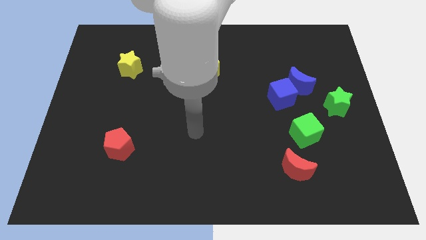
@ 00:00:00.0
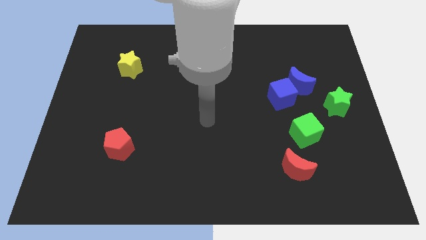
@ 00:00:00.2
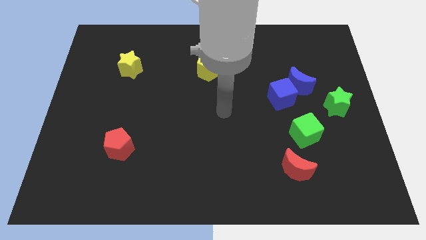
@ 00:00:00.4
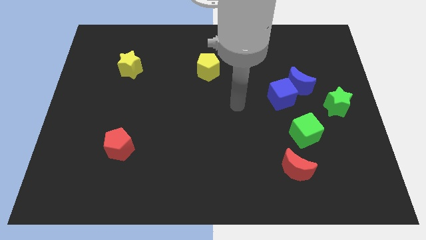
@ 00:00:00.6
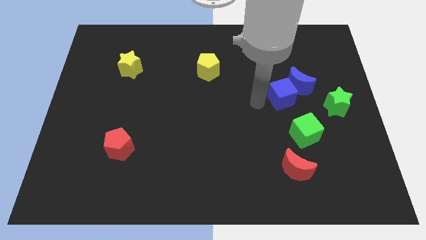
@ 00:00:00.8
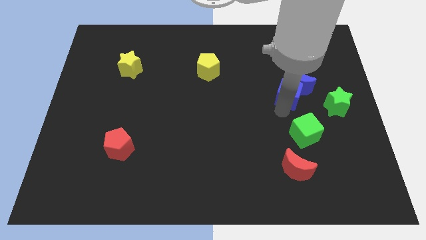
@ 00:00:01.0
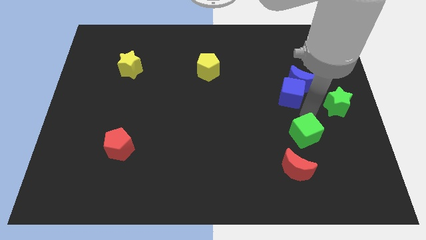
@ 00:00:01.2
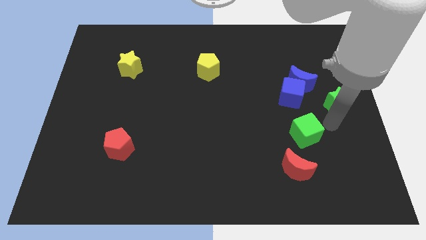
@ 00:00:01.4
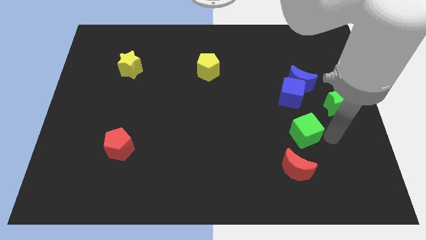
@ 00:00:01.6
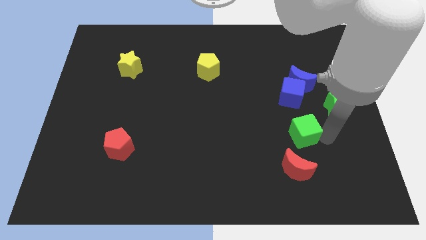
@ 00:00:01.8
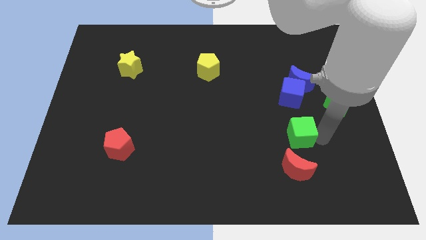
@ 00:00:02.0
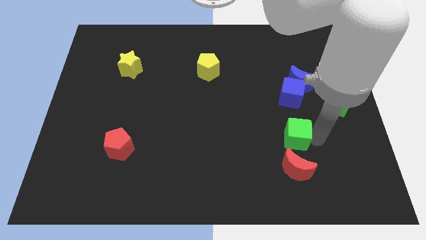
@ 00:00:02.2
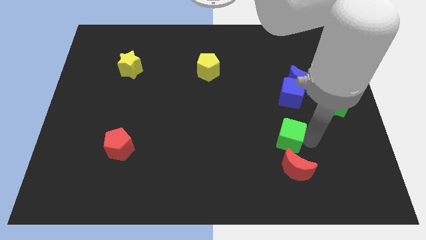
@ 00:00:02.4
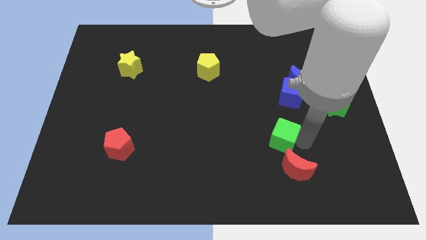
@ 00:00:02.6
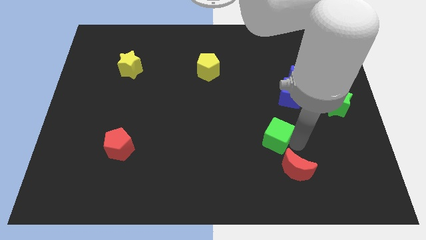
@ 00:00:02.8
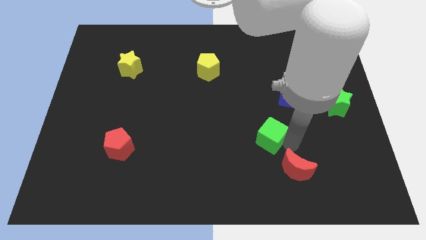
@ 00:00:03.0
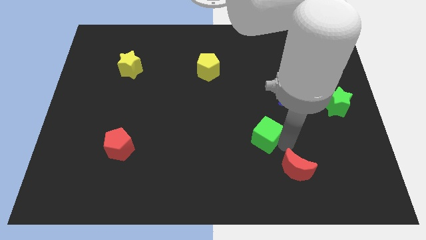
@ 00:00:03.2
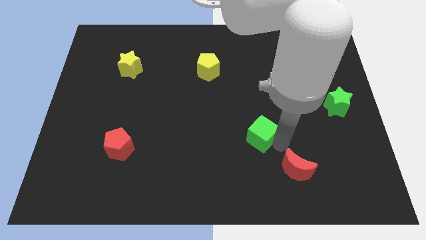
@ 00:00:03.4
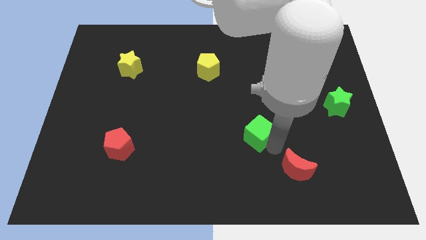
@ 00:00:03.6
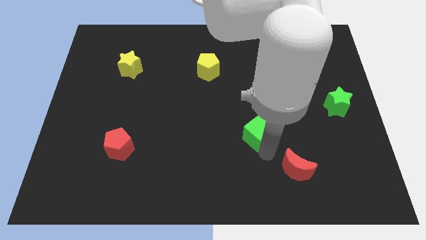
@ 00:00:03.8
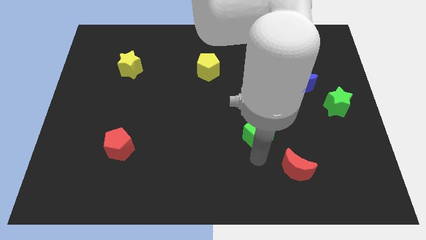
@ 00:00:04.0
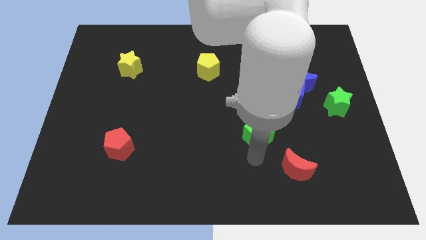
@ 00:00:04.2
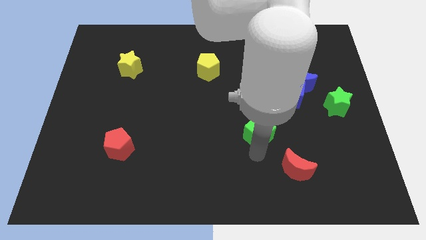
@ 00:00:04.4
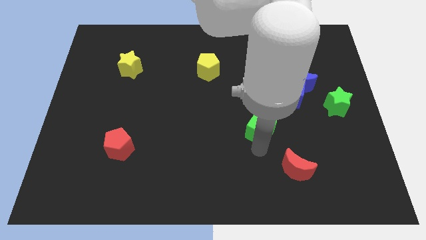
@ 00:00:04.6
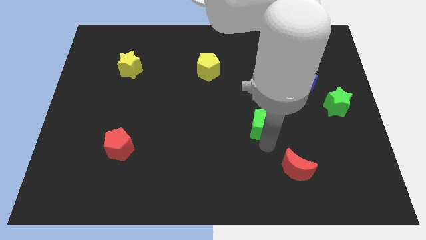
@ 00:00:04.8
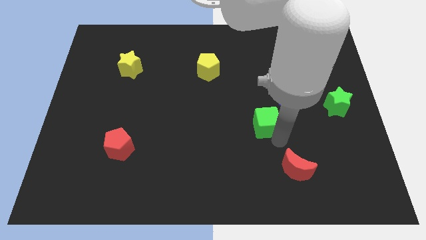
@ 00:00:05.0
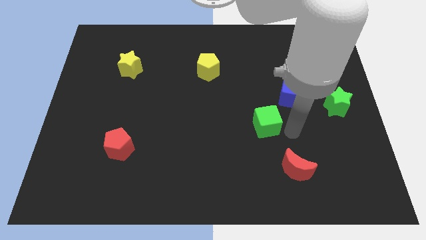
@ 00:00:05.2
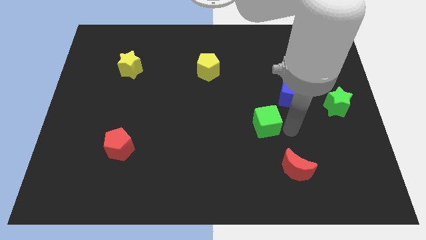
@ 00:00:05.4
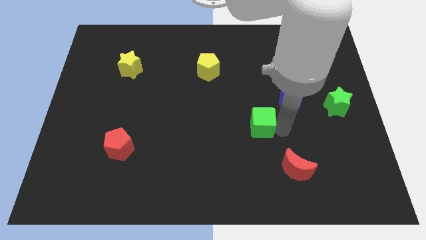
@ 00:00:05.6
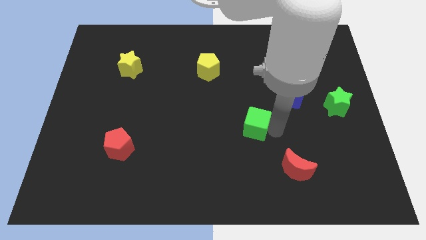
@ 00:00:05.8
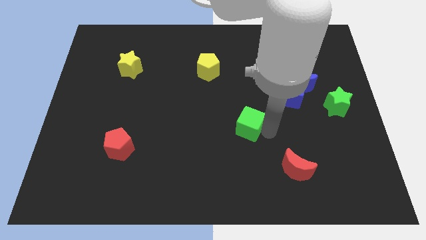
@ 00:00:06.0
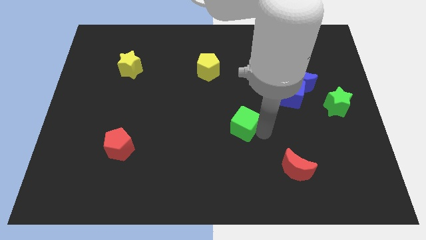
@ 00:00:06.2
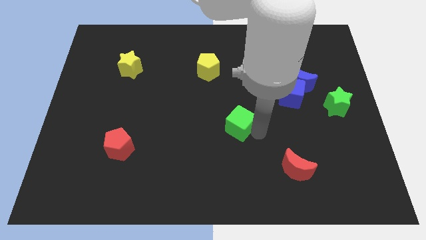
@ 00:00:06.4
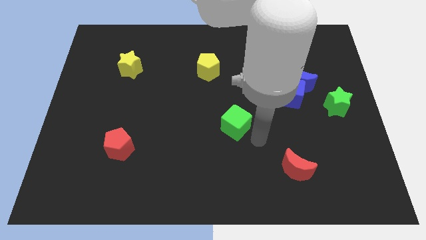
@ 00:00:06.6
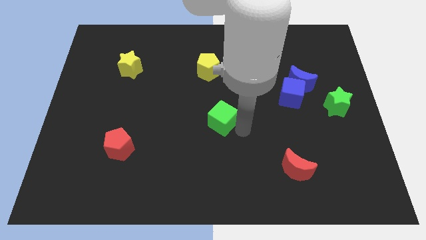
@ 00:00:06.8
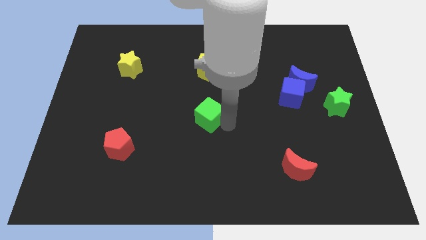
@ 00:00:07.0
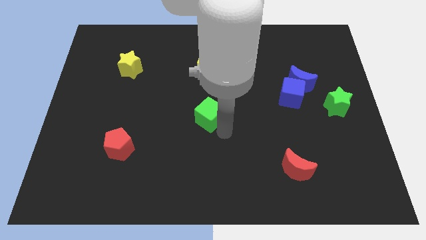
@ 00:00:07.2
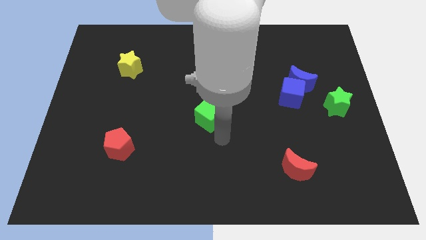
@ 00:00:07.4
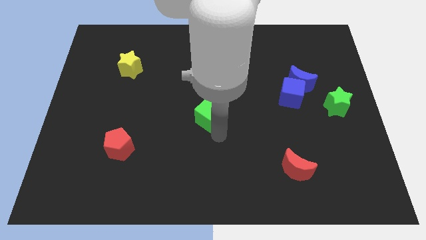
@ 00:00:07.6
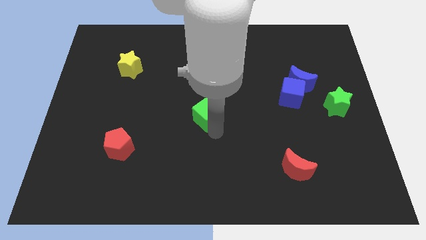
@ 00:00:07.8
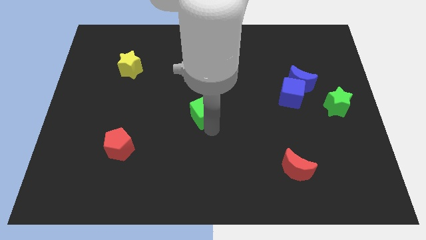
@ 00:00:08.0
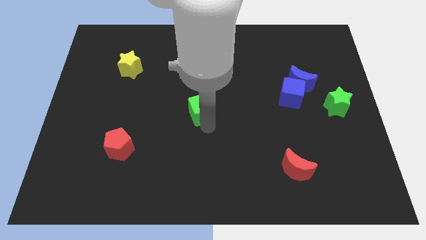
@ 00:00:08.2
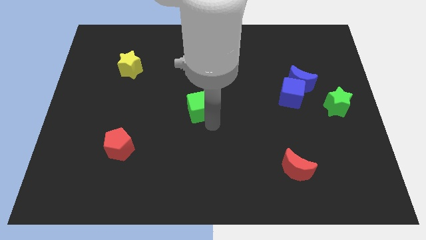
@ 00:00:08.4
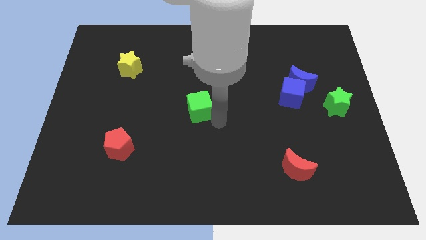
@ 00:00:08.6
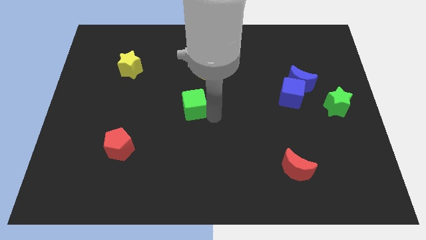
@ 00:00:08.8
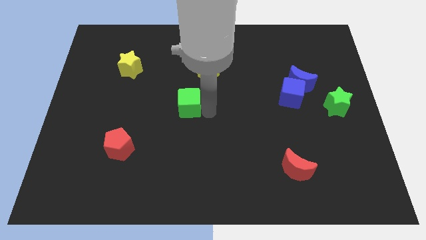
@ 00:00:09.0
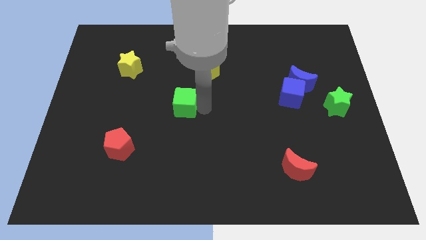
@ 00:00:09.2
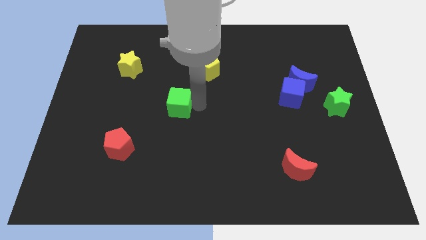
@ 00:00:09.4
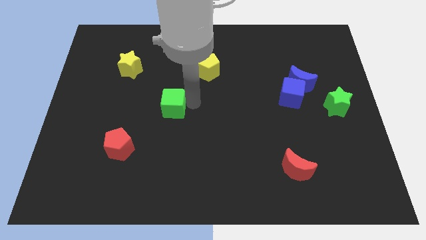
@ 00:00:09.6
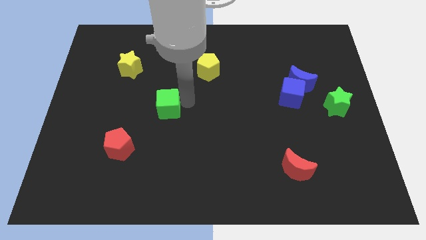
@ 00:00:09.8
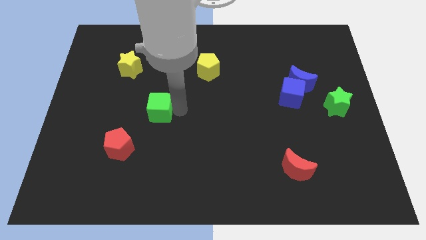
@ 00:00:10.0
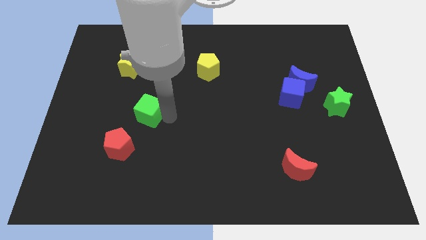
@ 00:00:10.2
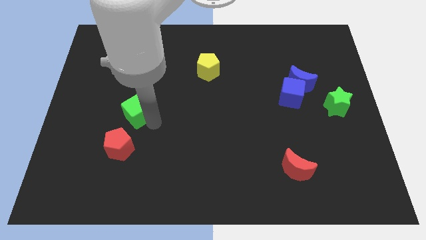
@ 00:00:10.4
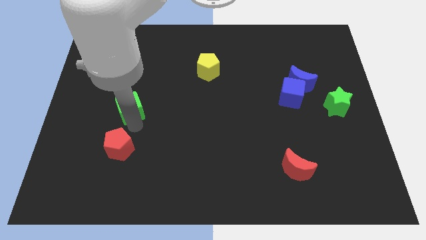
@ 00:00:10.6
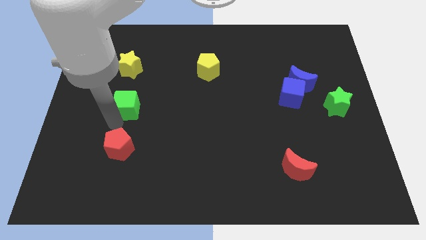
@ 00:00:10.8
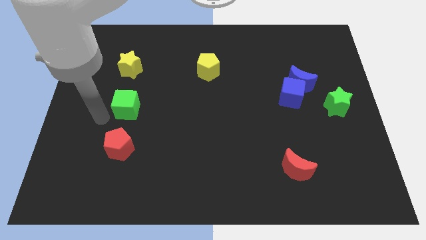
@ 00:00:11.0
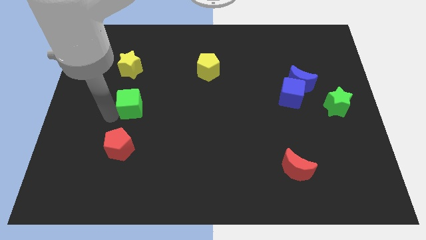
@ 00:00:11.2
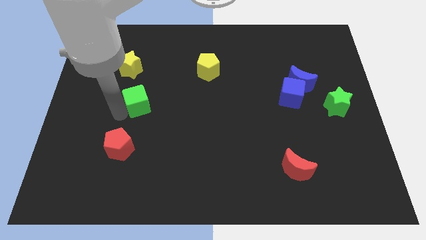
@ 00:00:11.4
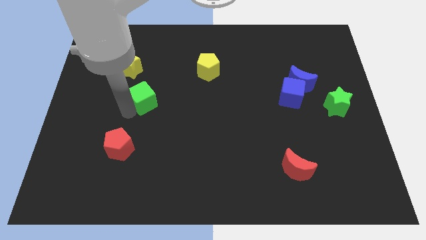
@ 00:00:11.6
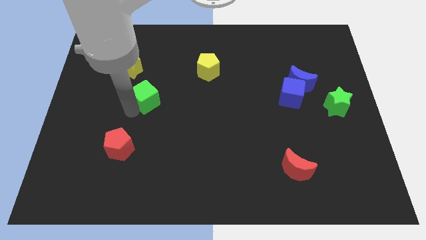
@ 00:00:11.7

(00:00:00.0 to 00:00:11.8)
put the green cube to the bottom right side of the yellow star
